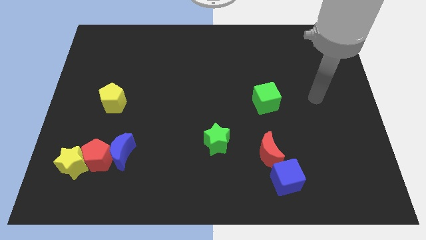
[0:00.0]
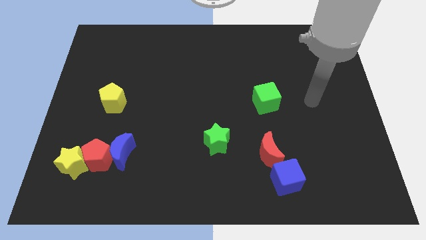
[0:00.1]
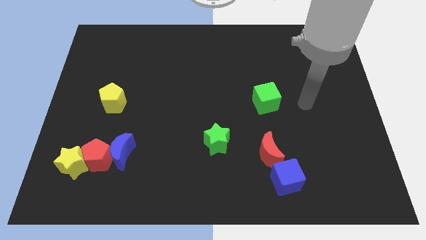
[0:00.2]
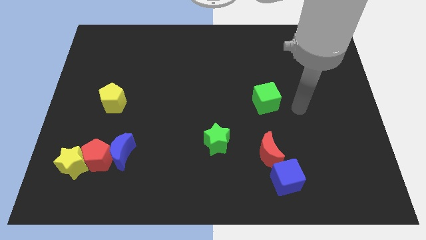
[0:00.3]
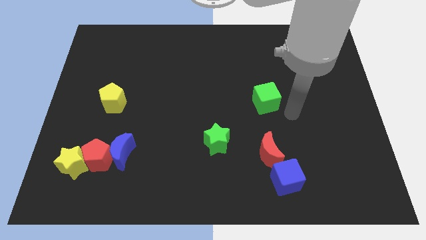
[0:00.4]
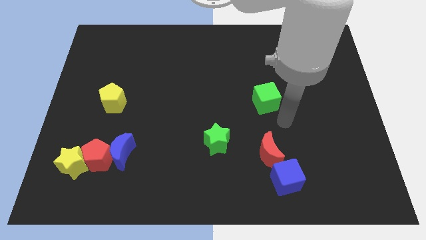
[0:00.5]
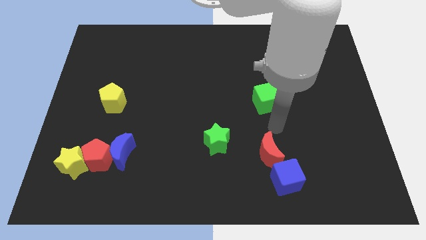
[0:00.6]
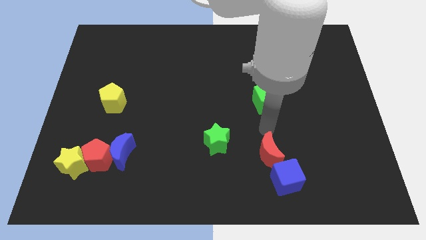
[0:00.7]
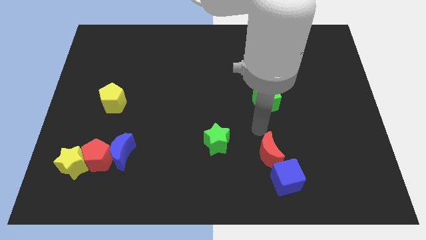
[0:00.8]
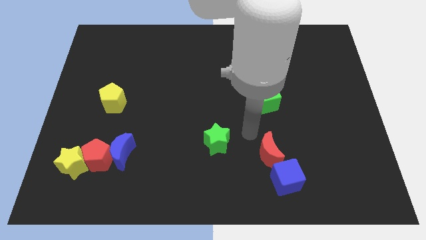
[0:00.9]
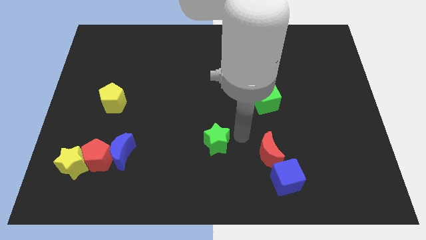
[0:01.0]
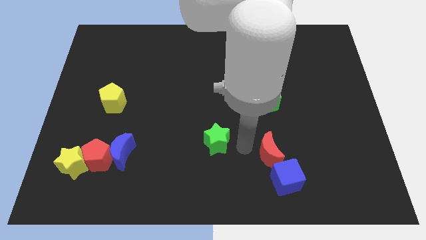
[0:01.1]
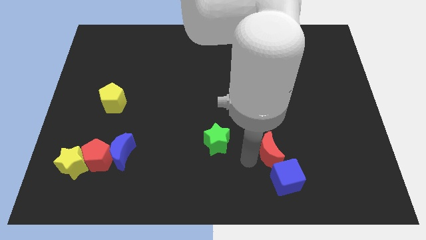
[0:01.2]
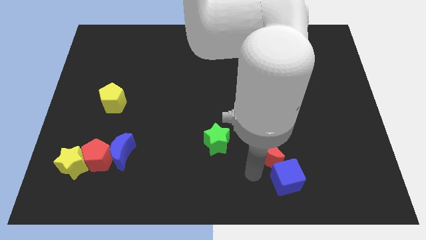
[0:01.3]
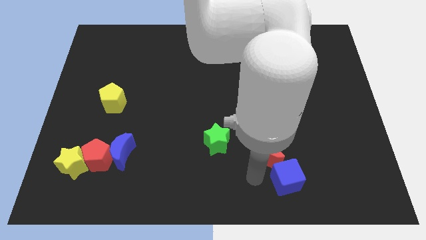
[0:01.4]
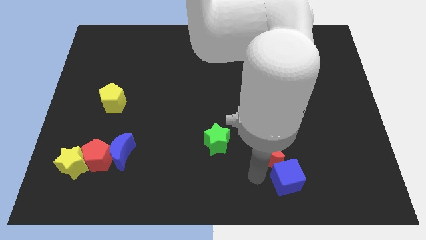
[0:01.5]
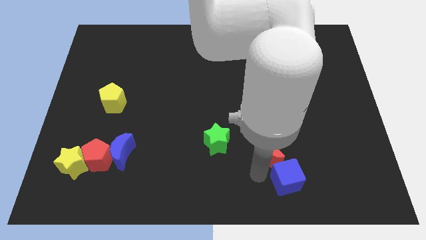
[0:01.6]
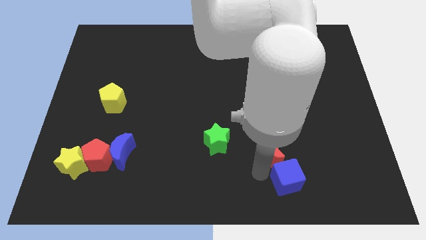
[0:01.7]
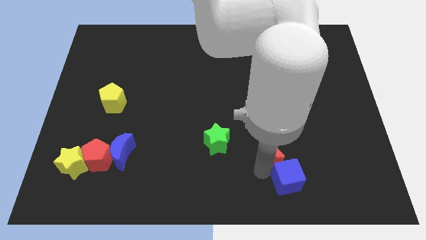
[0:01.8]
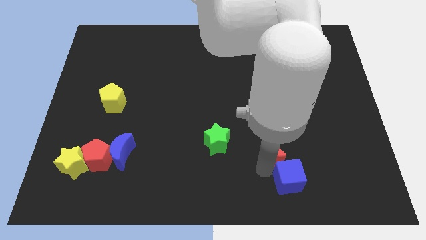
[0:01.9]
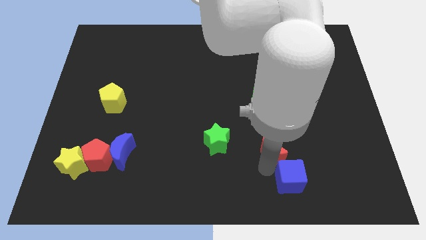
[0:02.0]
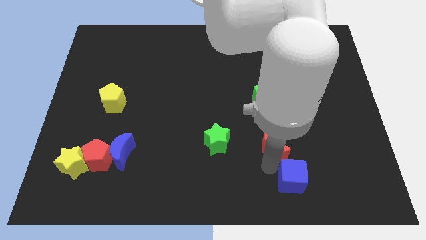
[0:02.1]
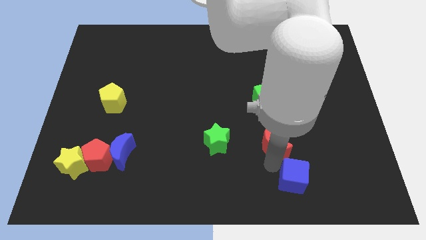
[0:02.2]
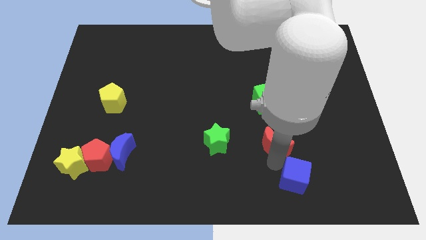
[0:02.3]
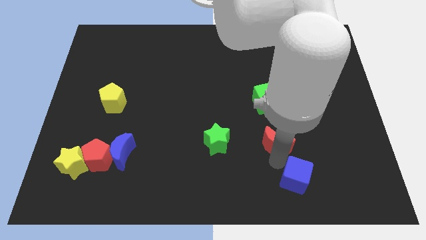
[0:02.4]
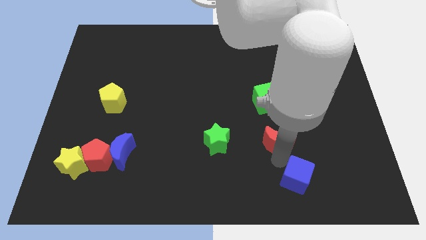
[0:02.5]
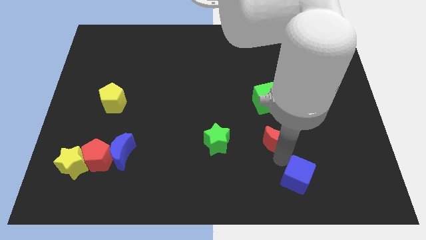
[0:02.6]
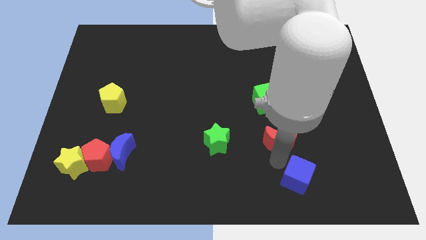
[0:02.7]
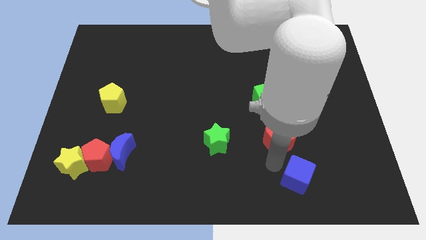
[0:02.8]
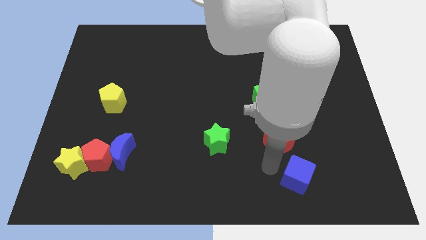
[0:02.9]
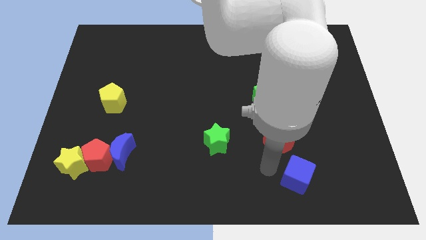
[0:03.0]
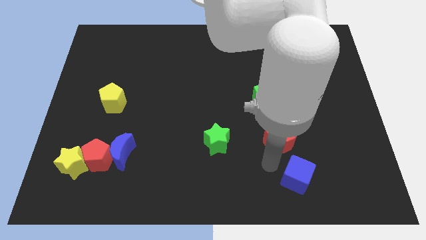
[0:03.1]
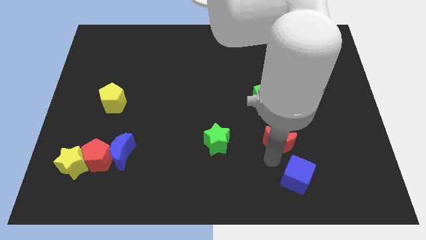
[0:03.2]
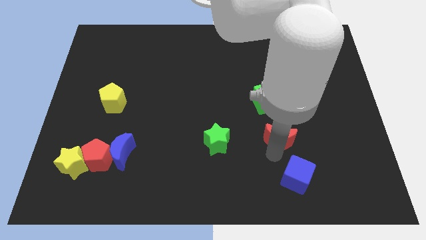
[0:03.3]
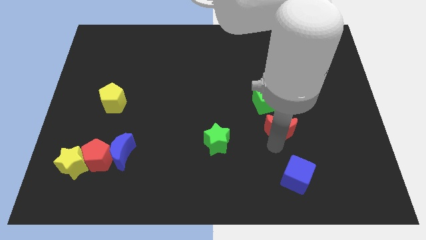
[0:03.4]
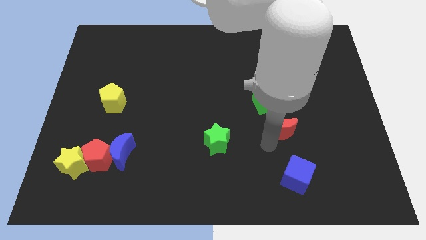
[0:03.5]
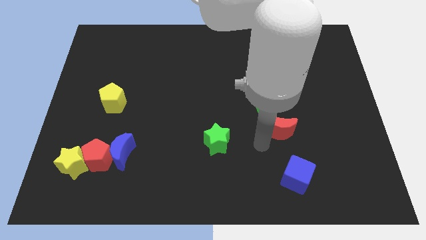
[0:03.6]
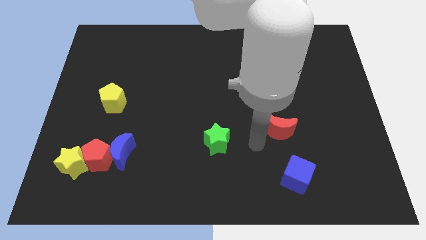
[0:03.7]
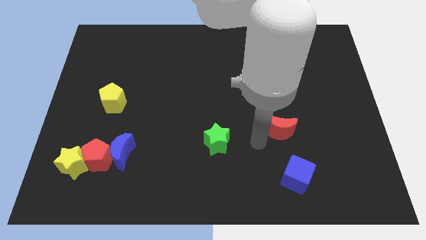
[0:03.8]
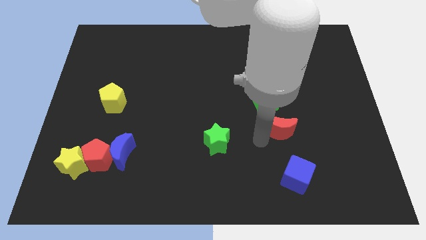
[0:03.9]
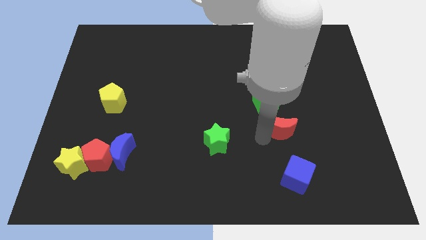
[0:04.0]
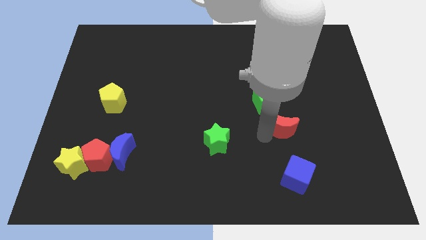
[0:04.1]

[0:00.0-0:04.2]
move the red moon a little bit up and then to the right

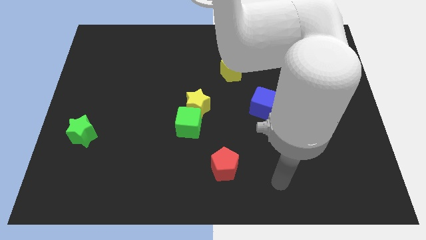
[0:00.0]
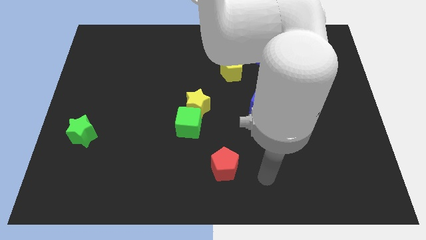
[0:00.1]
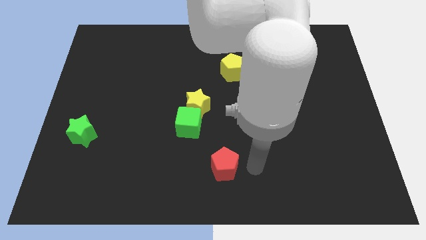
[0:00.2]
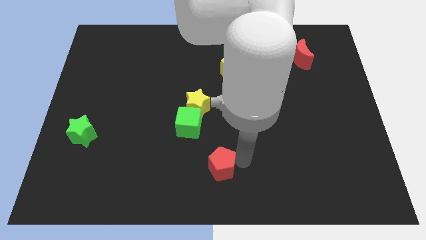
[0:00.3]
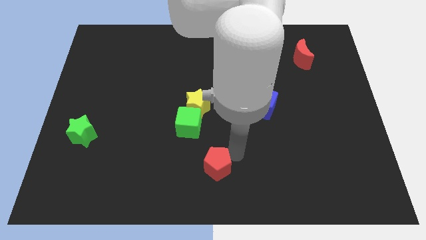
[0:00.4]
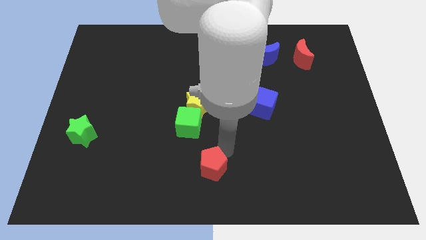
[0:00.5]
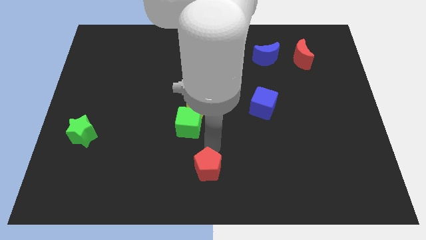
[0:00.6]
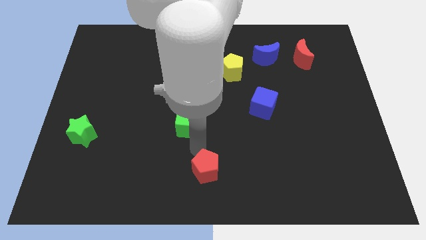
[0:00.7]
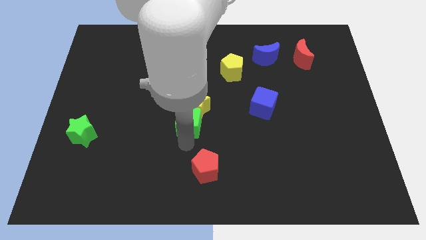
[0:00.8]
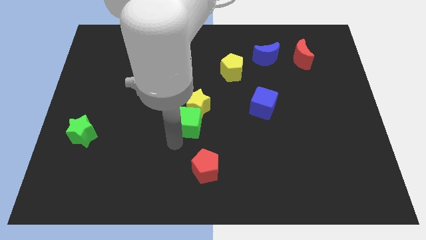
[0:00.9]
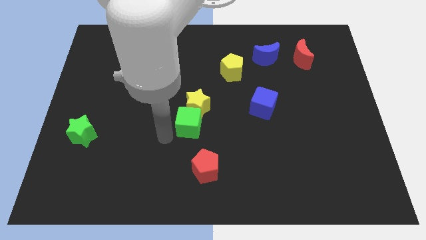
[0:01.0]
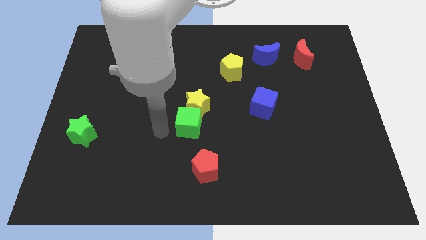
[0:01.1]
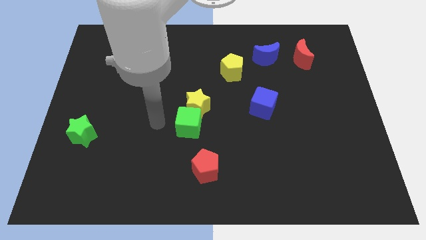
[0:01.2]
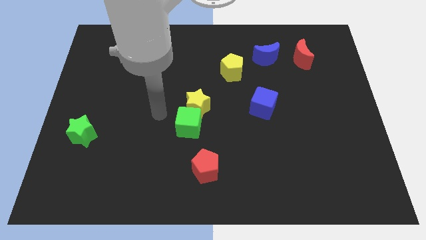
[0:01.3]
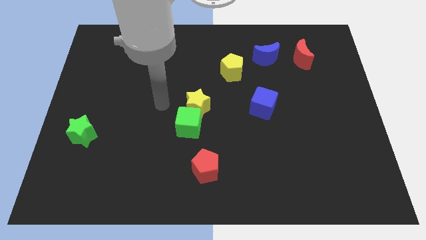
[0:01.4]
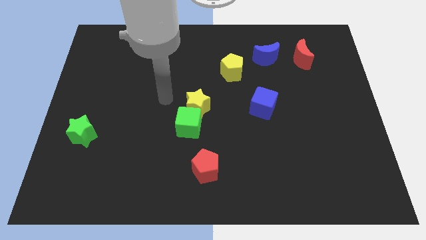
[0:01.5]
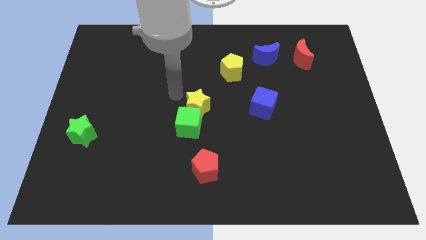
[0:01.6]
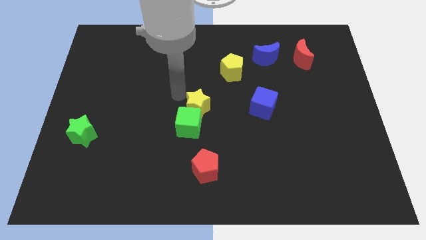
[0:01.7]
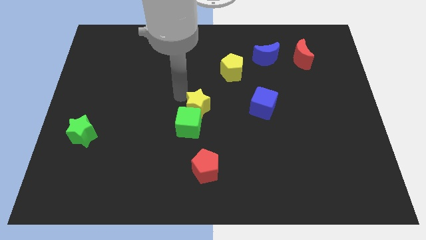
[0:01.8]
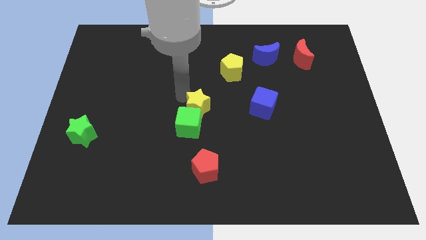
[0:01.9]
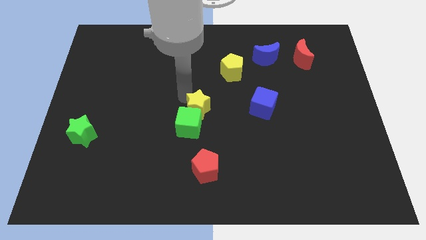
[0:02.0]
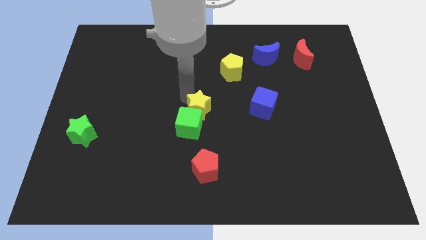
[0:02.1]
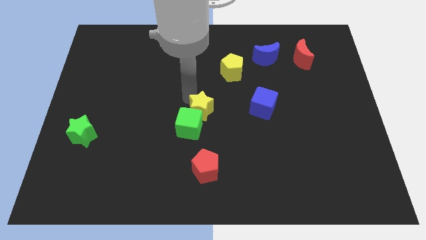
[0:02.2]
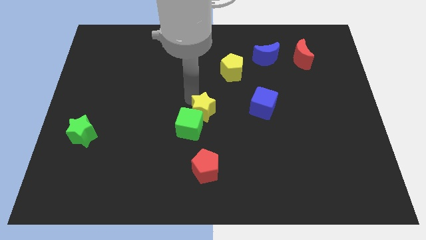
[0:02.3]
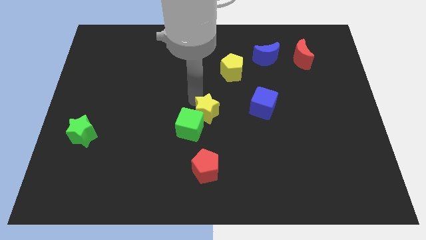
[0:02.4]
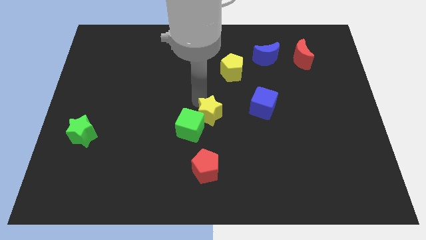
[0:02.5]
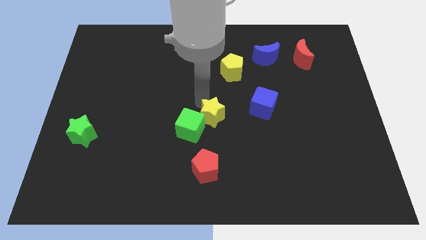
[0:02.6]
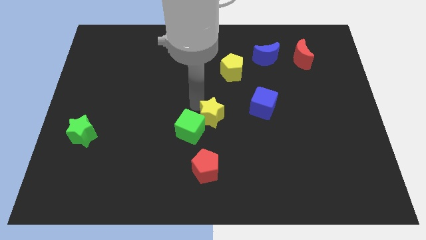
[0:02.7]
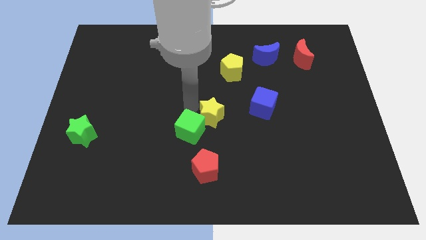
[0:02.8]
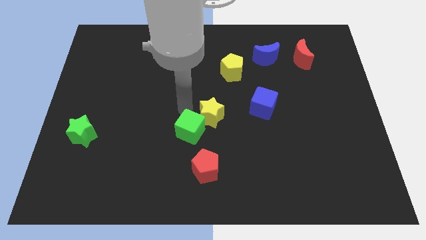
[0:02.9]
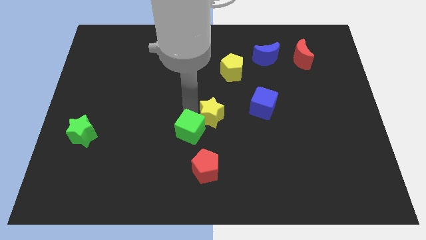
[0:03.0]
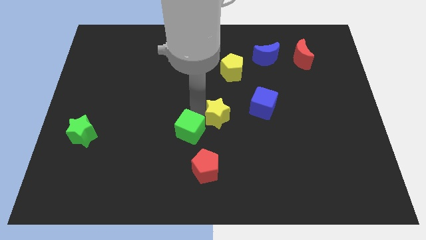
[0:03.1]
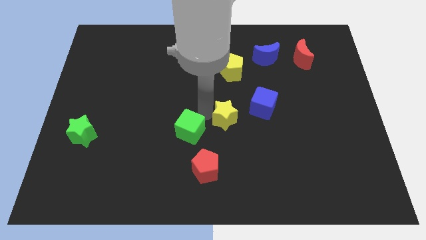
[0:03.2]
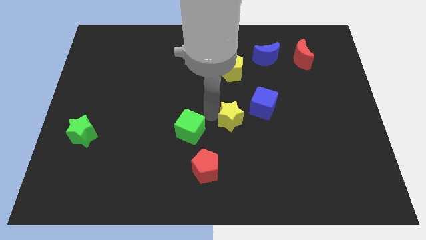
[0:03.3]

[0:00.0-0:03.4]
slightly move the yellow star right
